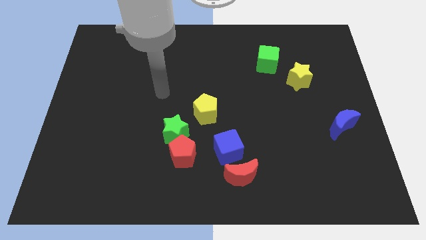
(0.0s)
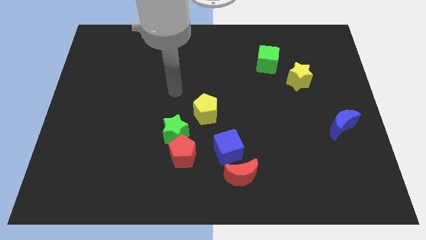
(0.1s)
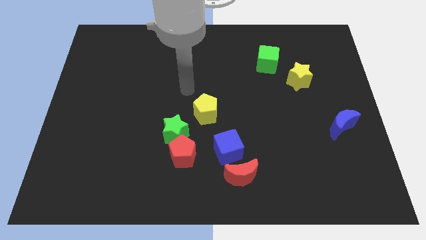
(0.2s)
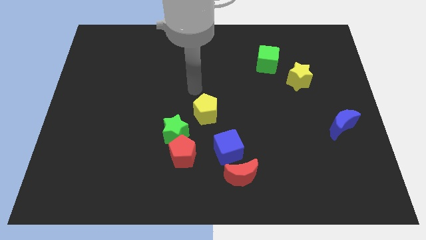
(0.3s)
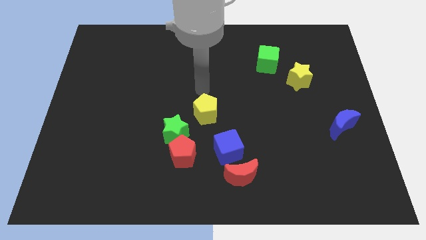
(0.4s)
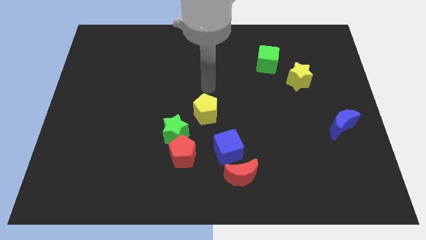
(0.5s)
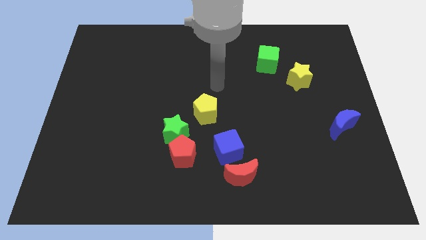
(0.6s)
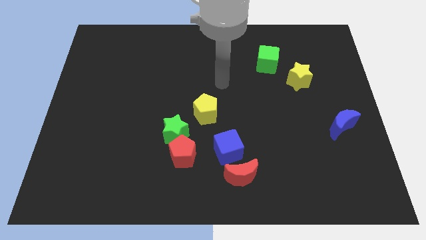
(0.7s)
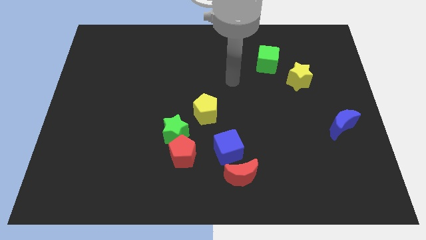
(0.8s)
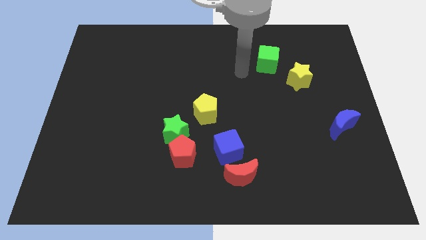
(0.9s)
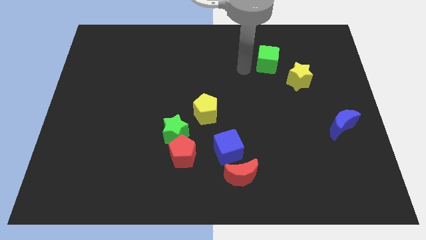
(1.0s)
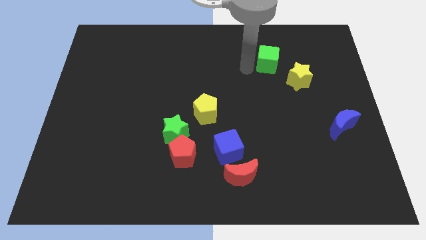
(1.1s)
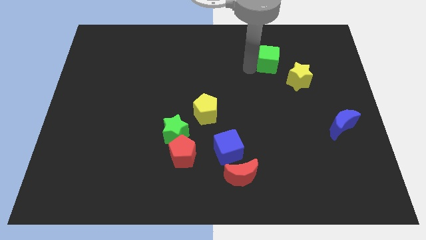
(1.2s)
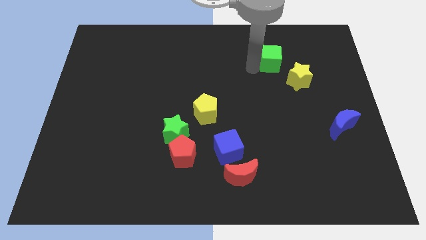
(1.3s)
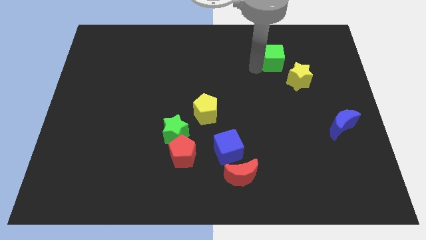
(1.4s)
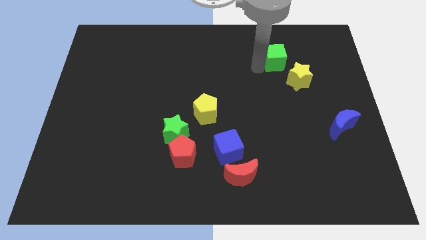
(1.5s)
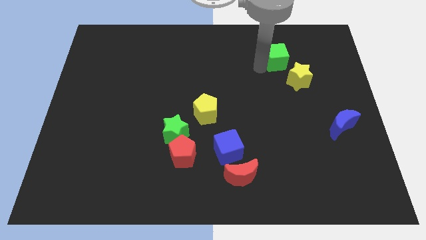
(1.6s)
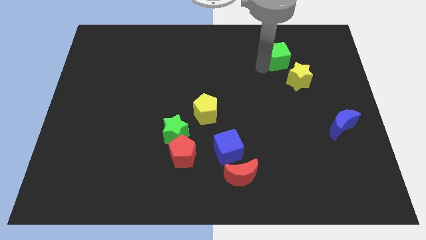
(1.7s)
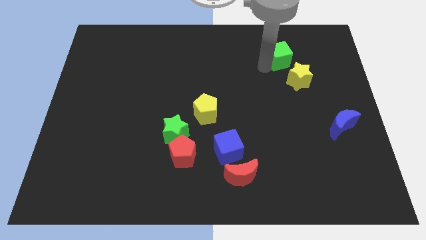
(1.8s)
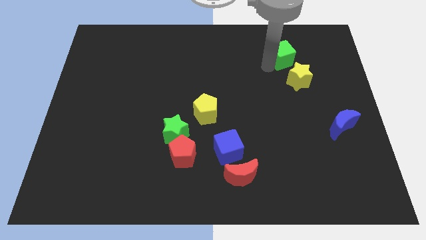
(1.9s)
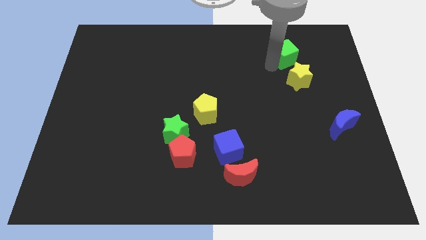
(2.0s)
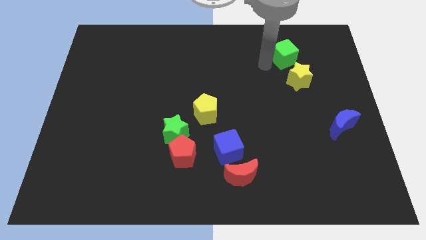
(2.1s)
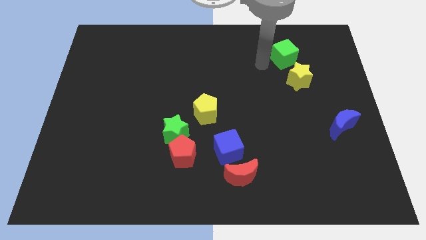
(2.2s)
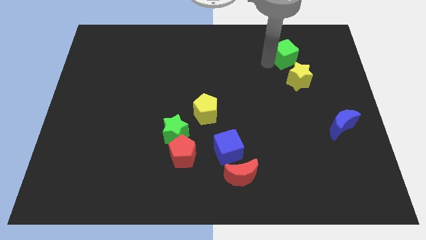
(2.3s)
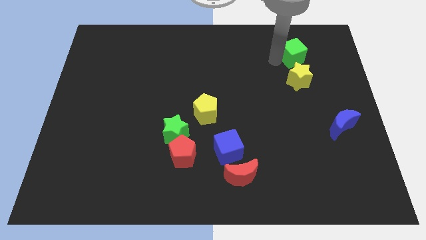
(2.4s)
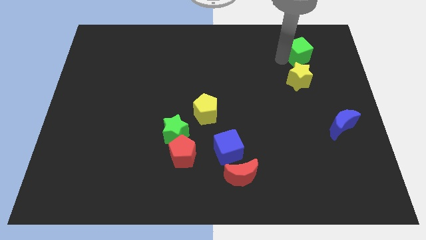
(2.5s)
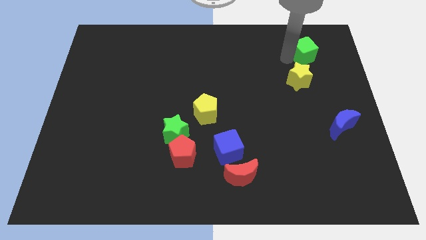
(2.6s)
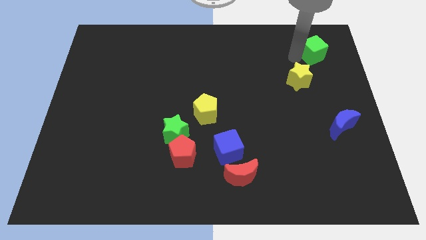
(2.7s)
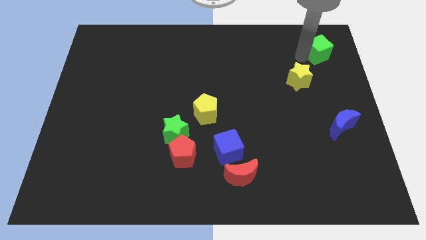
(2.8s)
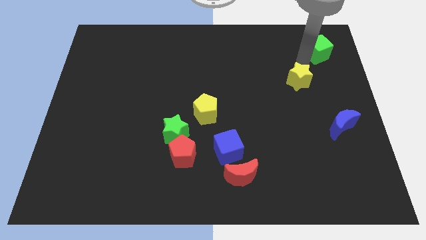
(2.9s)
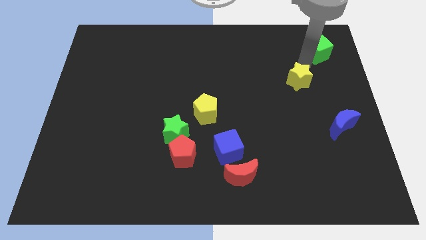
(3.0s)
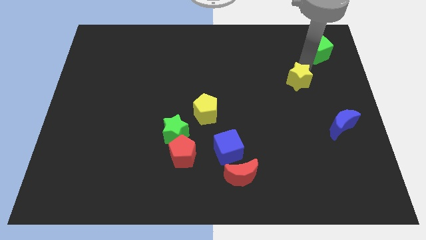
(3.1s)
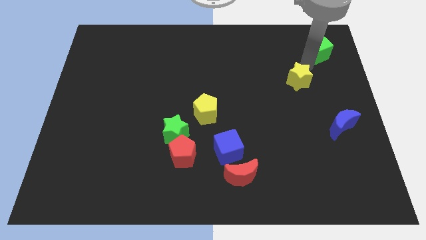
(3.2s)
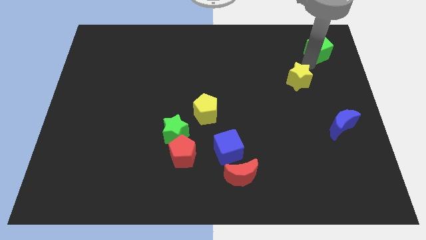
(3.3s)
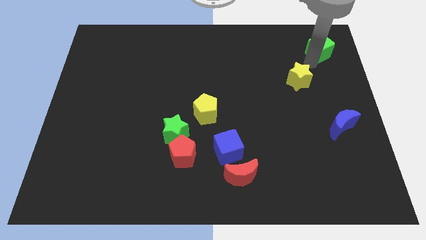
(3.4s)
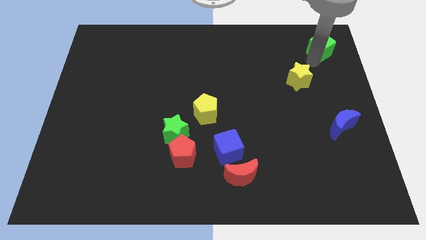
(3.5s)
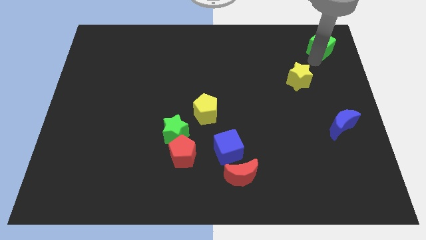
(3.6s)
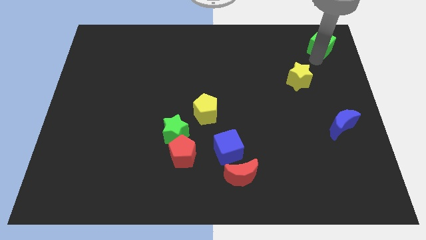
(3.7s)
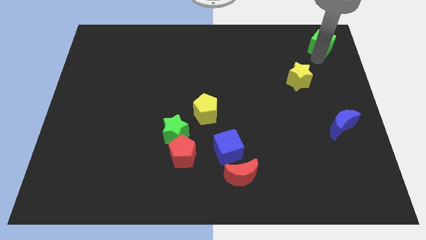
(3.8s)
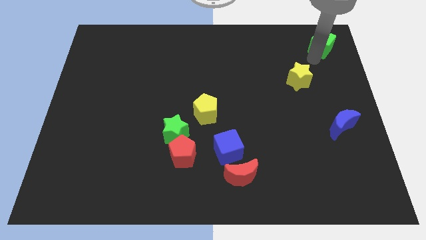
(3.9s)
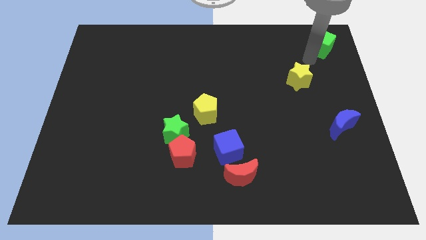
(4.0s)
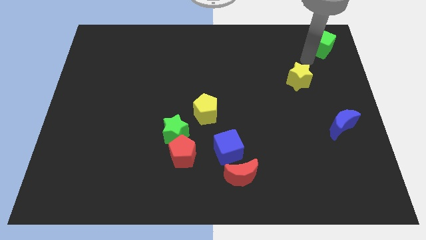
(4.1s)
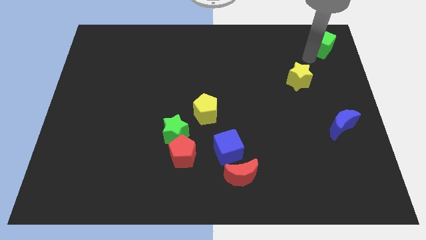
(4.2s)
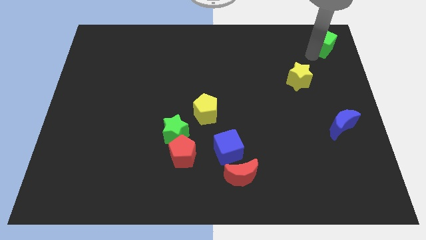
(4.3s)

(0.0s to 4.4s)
put the green cube to the top right

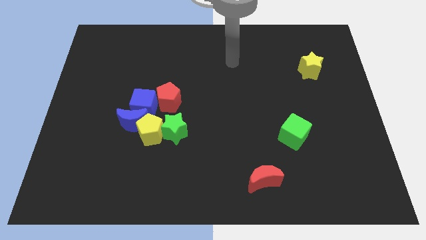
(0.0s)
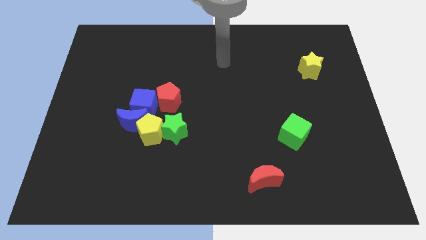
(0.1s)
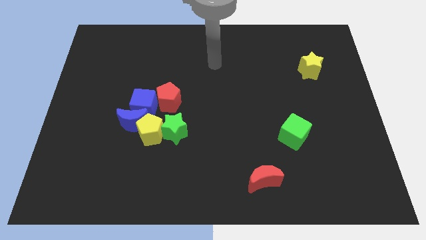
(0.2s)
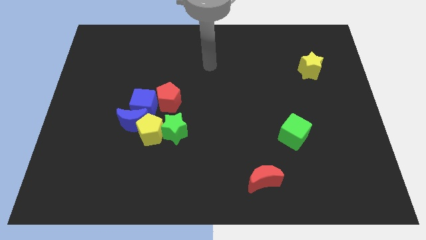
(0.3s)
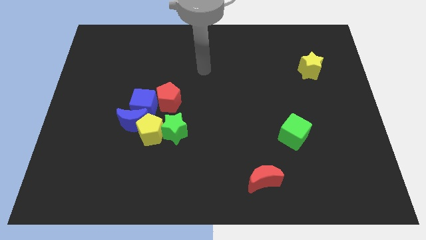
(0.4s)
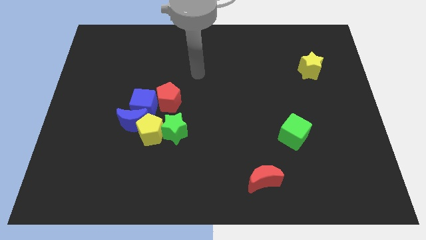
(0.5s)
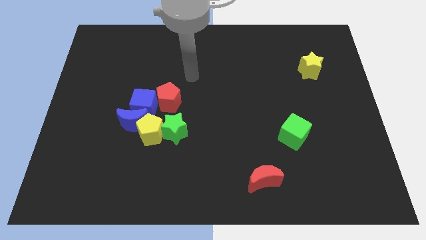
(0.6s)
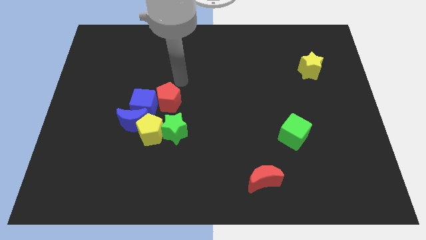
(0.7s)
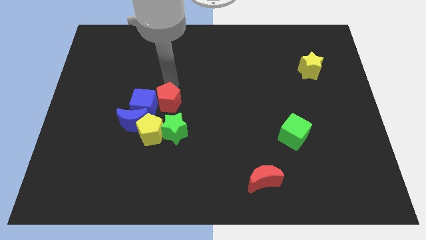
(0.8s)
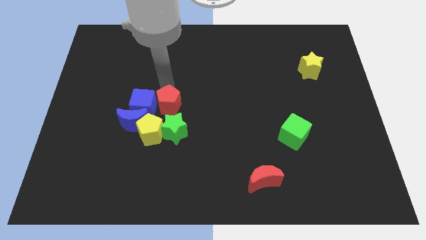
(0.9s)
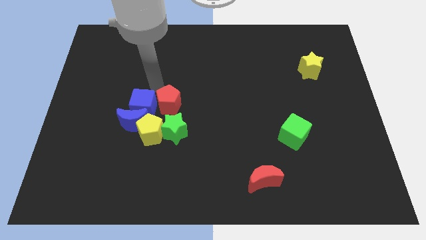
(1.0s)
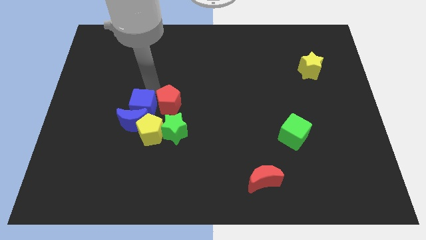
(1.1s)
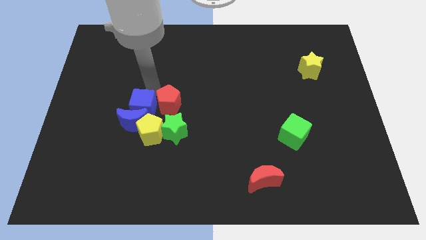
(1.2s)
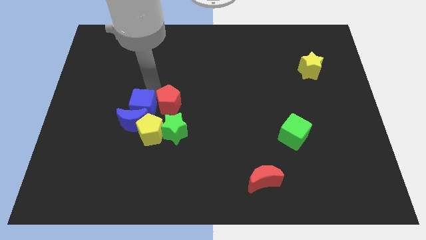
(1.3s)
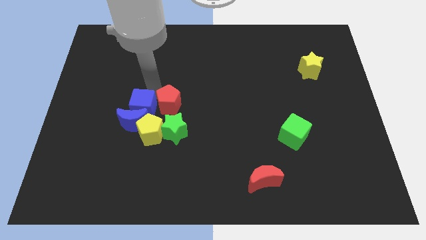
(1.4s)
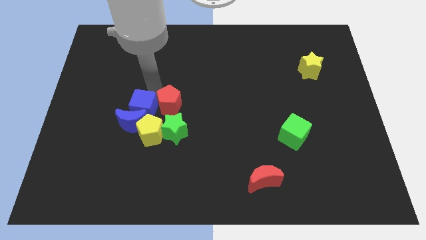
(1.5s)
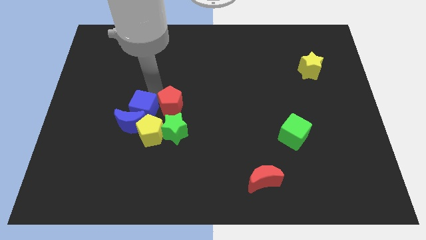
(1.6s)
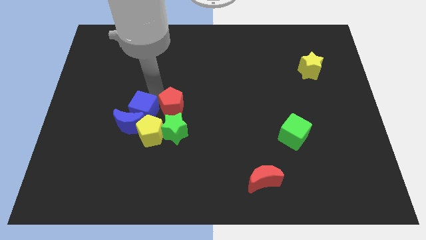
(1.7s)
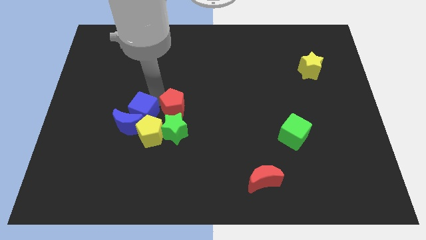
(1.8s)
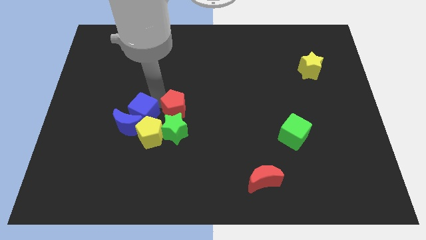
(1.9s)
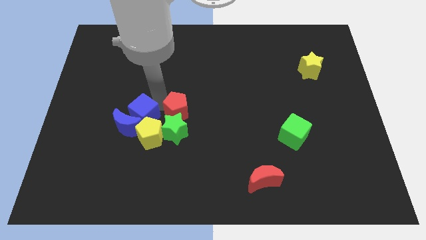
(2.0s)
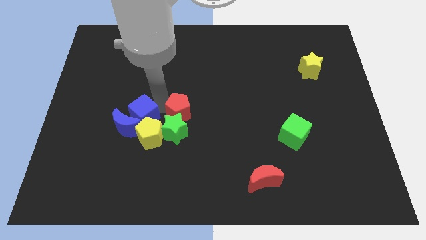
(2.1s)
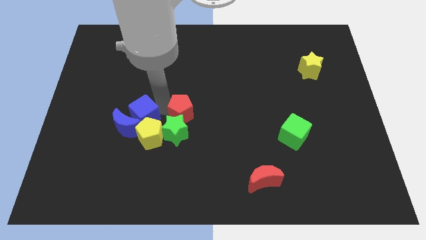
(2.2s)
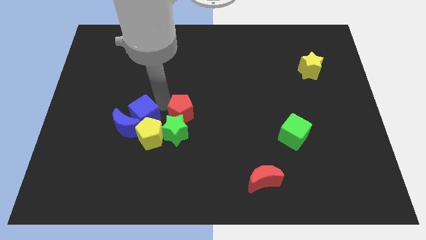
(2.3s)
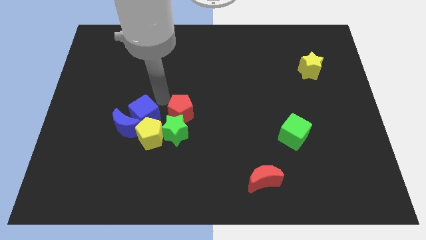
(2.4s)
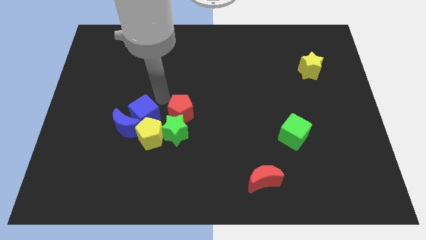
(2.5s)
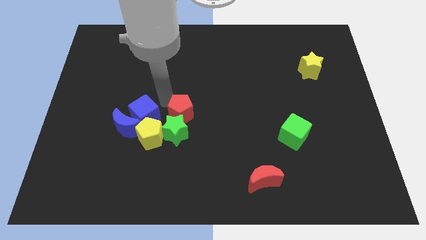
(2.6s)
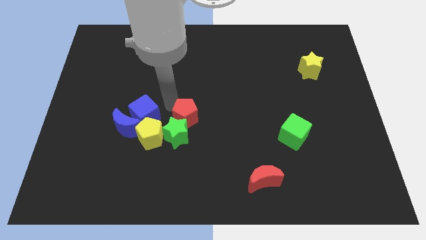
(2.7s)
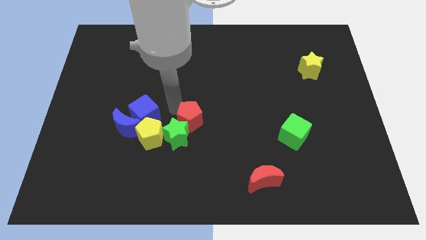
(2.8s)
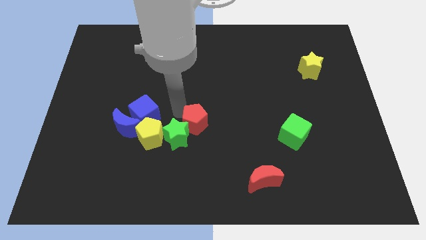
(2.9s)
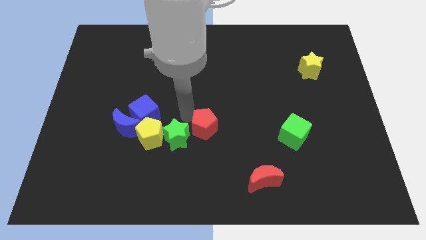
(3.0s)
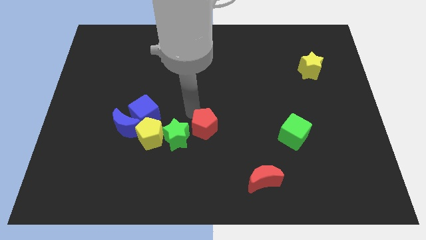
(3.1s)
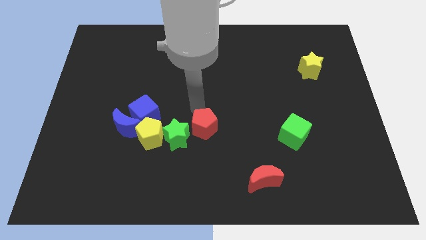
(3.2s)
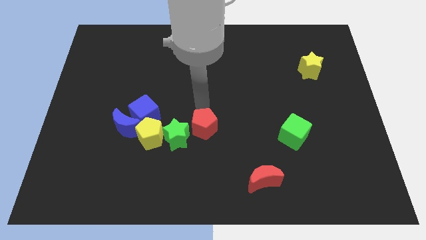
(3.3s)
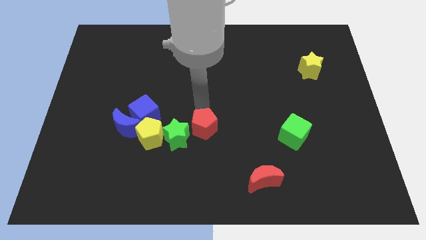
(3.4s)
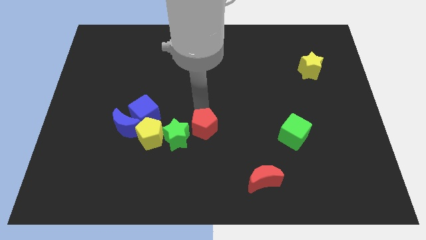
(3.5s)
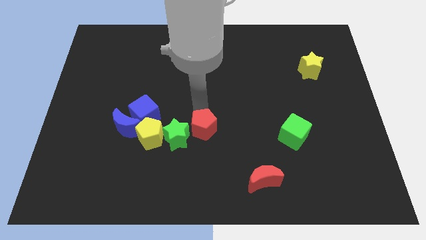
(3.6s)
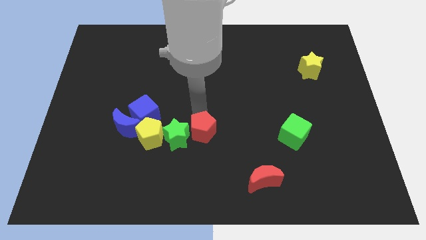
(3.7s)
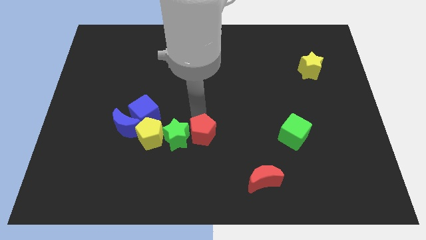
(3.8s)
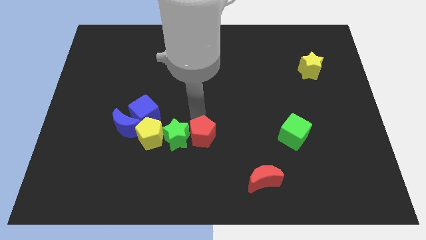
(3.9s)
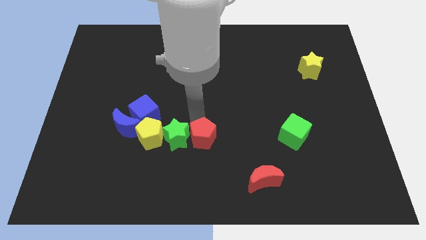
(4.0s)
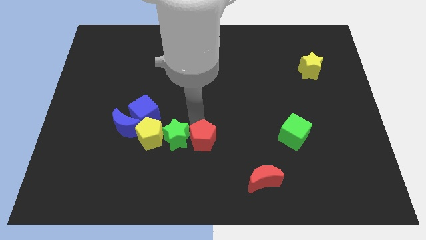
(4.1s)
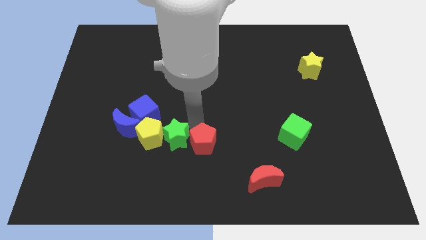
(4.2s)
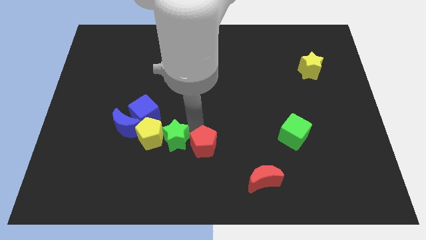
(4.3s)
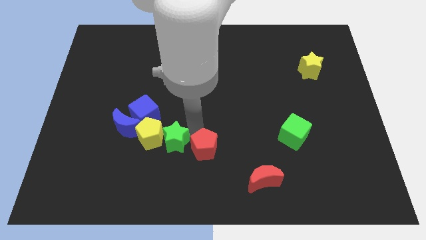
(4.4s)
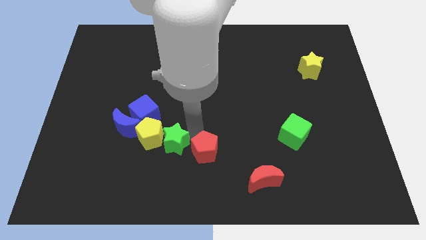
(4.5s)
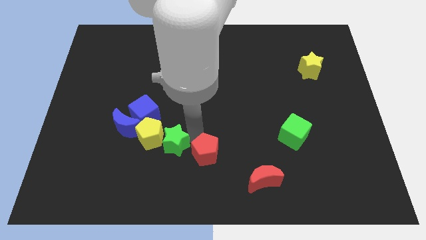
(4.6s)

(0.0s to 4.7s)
put the red pentagon to the bottom
